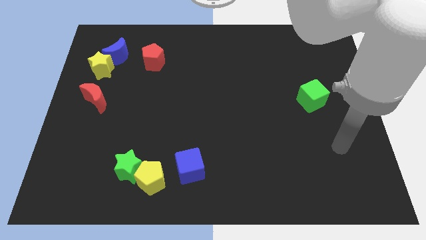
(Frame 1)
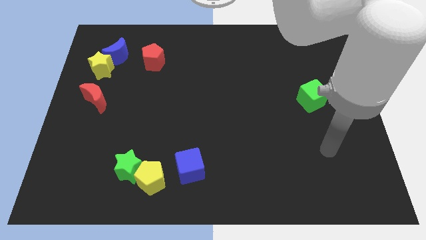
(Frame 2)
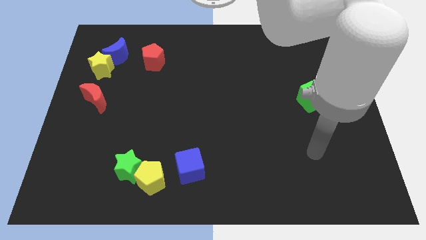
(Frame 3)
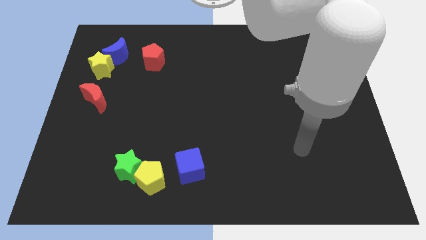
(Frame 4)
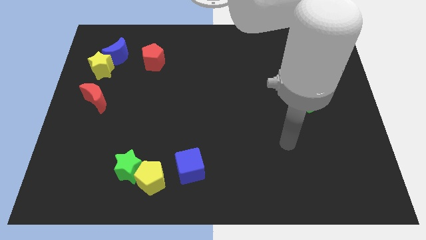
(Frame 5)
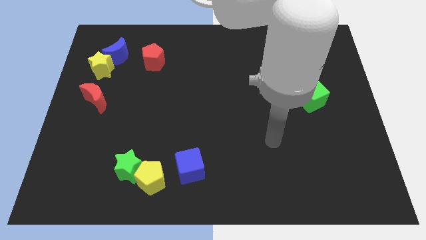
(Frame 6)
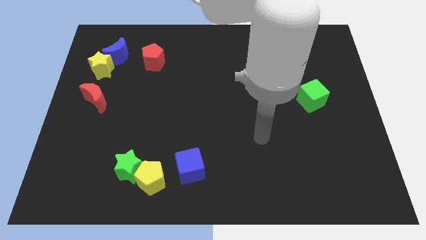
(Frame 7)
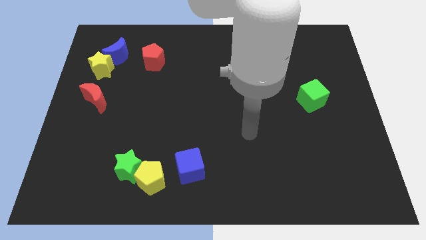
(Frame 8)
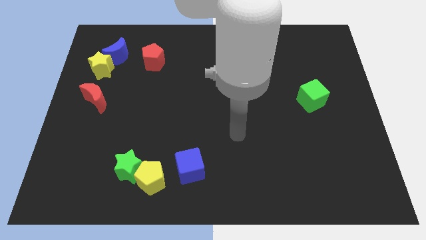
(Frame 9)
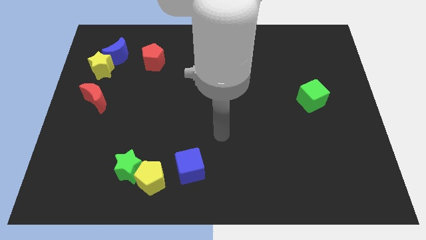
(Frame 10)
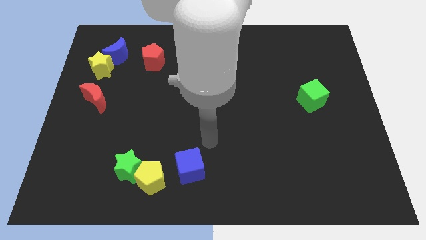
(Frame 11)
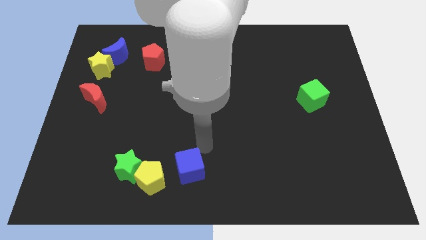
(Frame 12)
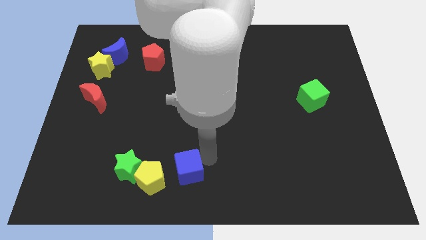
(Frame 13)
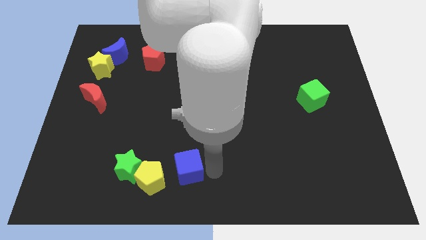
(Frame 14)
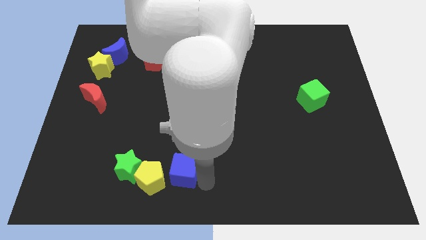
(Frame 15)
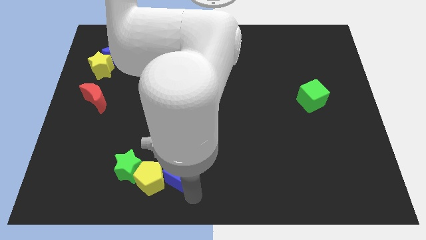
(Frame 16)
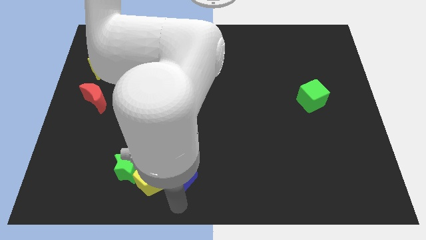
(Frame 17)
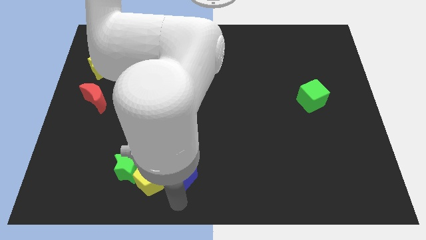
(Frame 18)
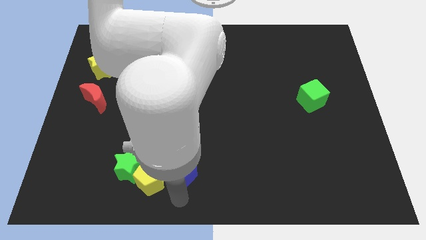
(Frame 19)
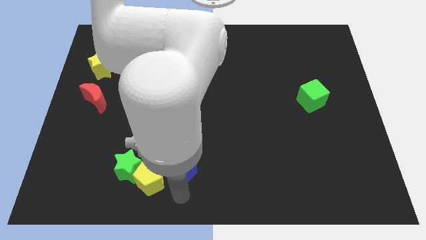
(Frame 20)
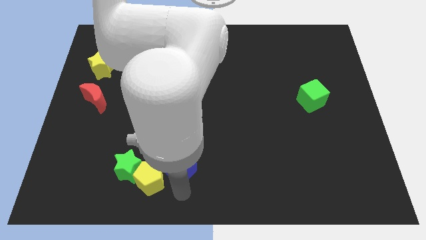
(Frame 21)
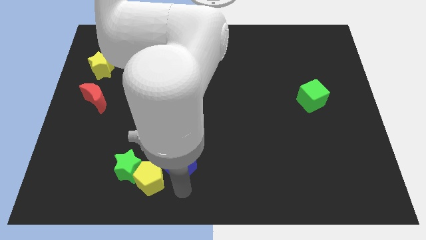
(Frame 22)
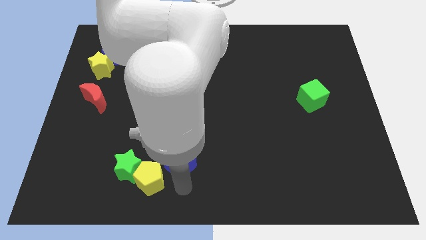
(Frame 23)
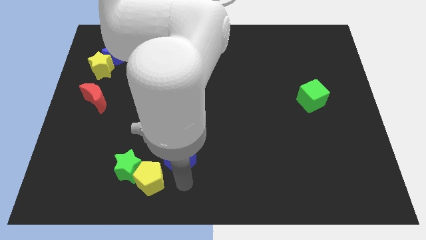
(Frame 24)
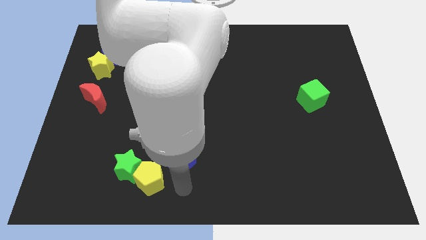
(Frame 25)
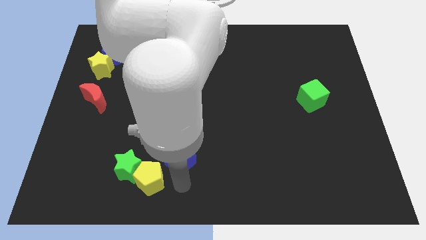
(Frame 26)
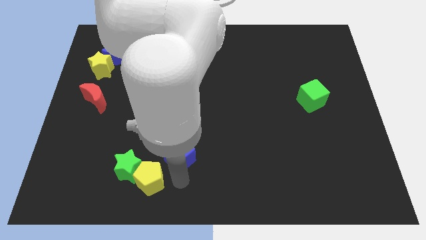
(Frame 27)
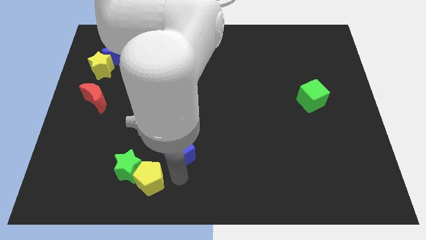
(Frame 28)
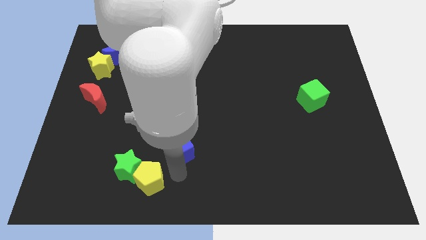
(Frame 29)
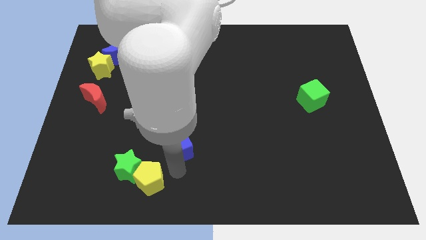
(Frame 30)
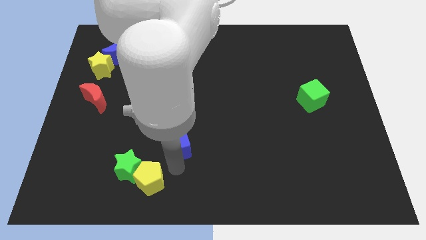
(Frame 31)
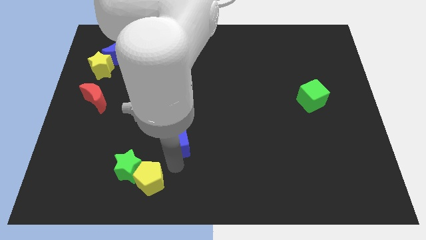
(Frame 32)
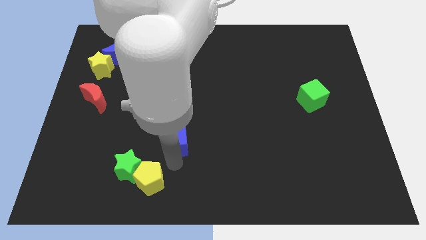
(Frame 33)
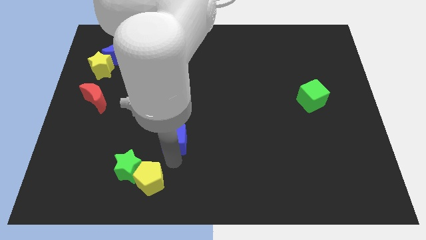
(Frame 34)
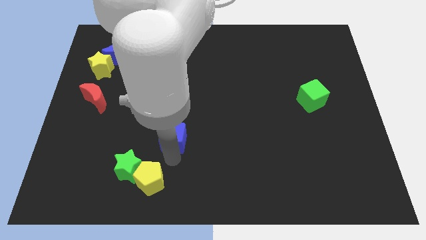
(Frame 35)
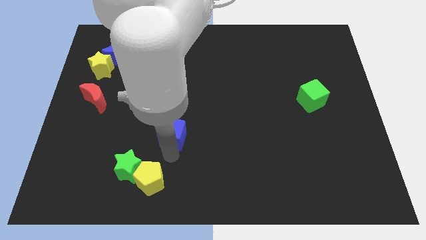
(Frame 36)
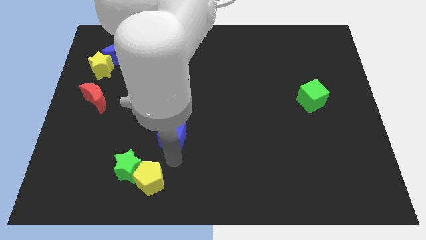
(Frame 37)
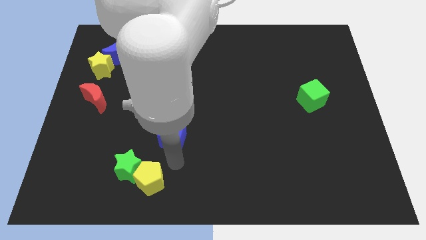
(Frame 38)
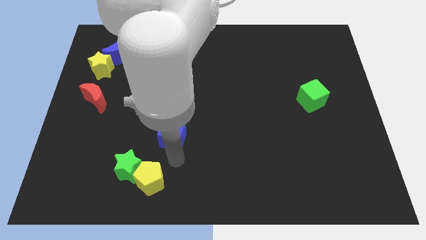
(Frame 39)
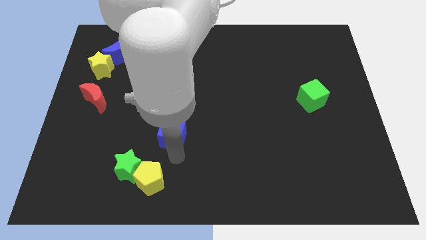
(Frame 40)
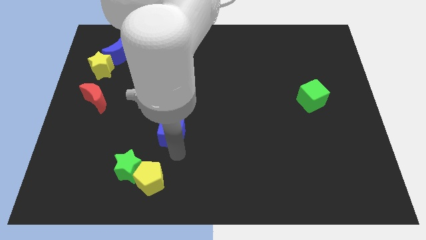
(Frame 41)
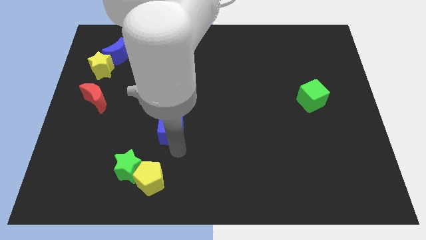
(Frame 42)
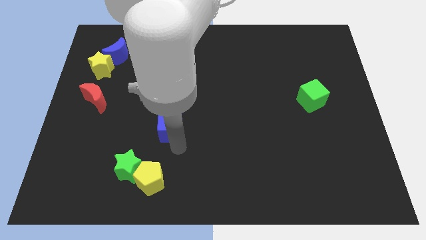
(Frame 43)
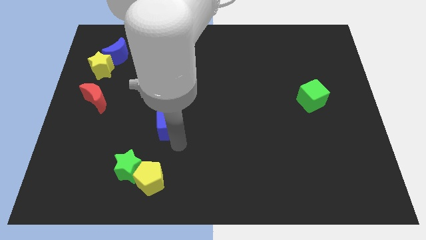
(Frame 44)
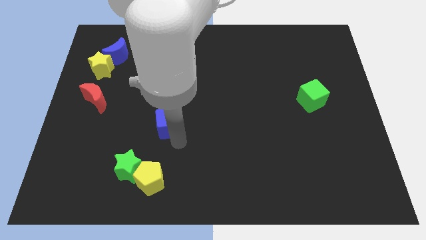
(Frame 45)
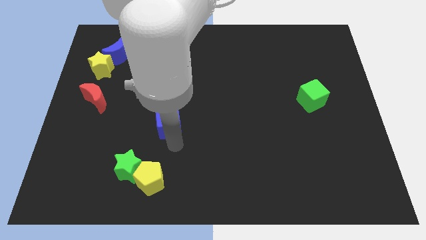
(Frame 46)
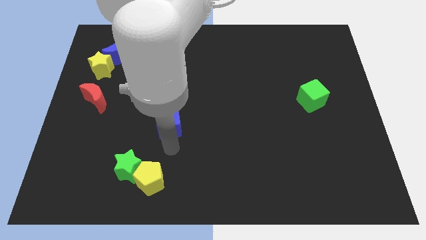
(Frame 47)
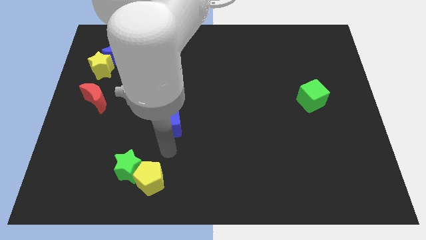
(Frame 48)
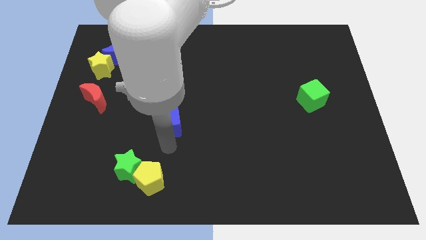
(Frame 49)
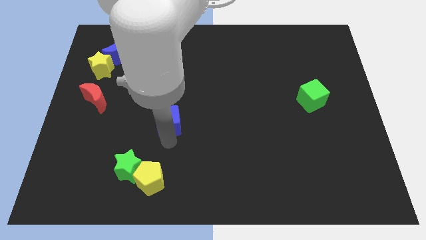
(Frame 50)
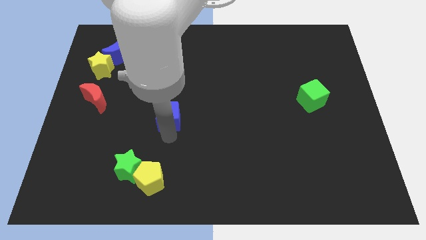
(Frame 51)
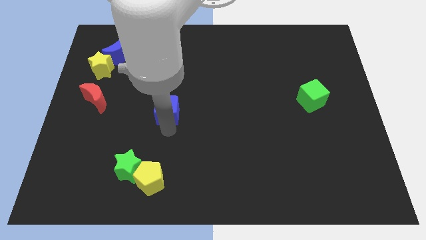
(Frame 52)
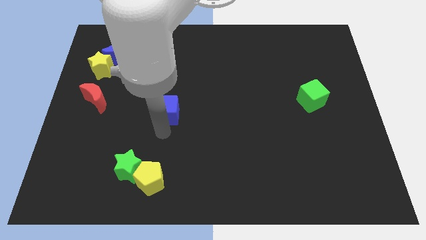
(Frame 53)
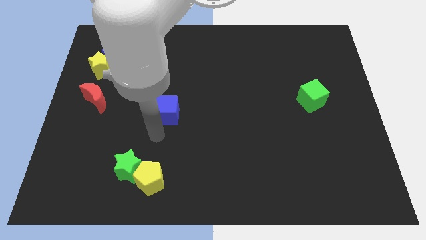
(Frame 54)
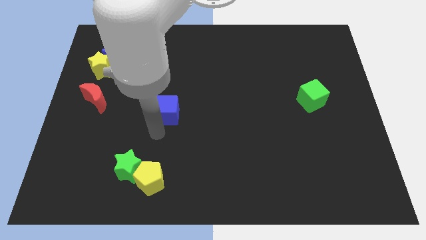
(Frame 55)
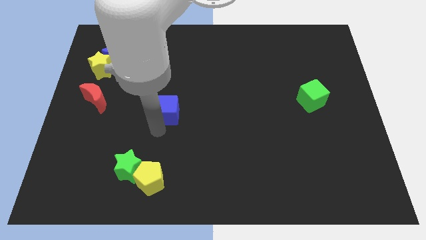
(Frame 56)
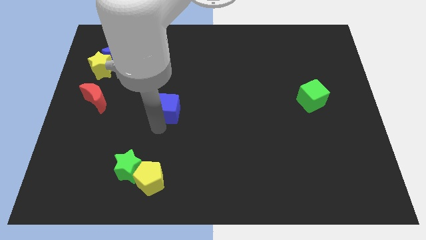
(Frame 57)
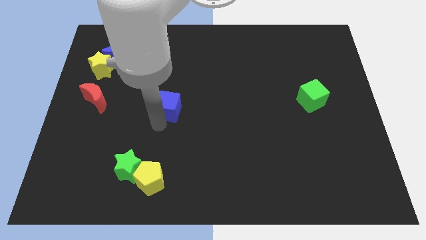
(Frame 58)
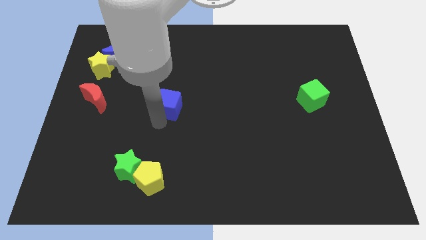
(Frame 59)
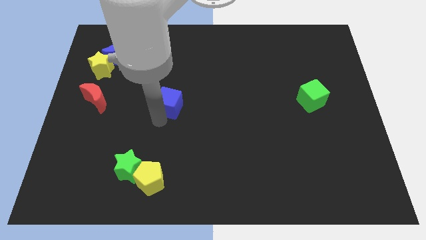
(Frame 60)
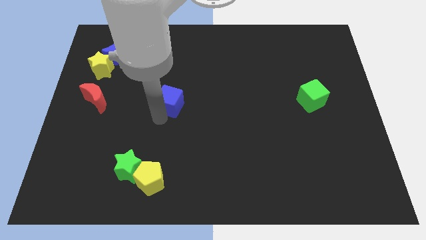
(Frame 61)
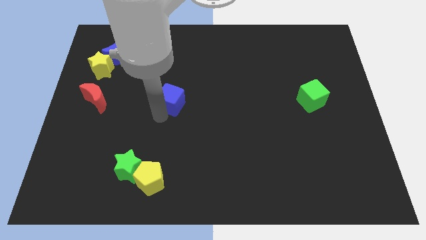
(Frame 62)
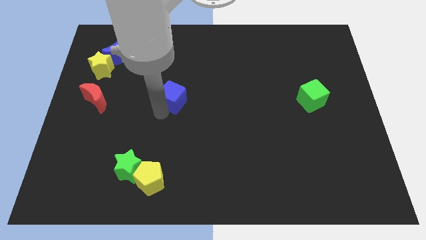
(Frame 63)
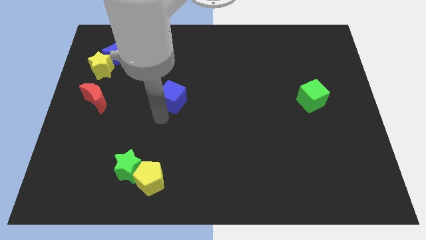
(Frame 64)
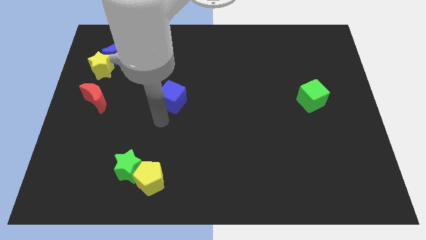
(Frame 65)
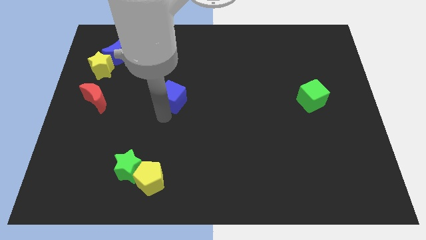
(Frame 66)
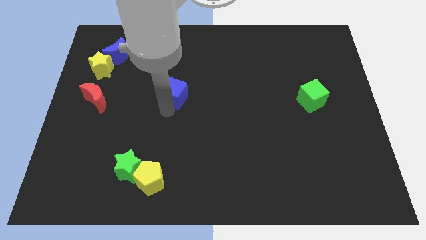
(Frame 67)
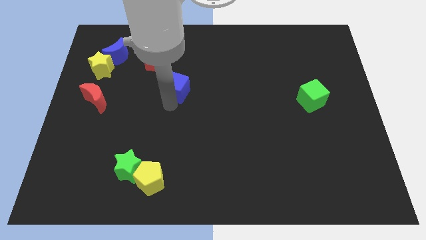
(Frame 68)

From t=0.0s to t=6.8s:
push the blue cube upwards

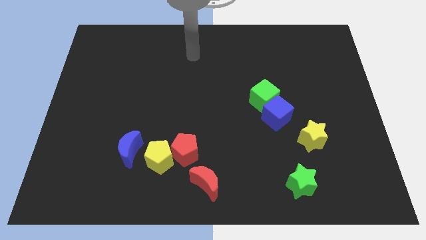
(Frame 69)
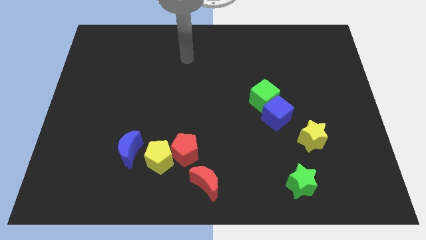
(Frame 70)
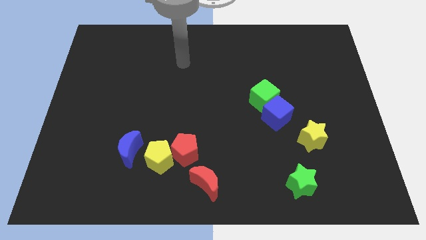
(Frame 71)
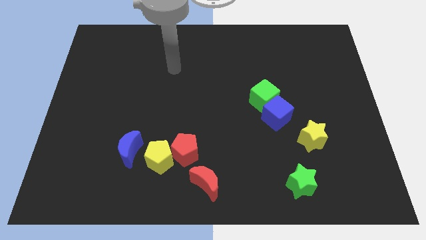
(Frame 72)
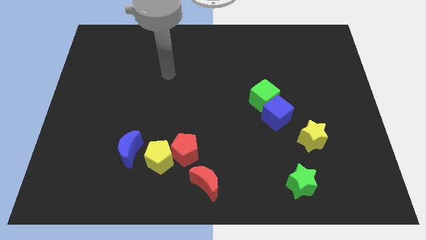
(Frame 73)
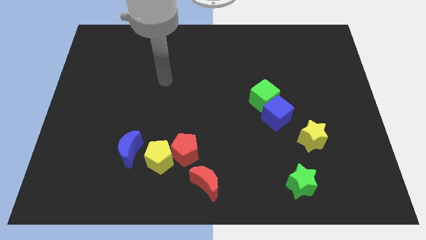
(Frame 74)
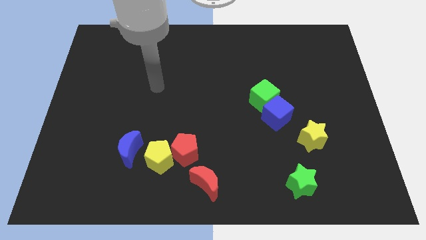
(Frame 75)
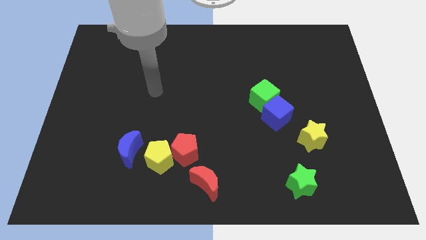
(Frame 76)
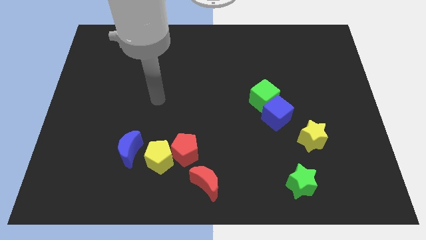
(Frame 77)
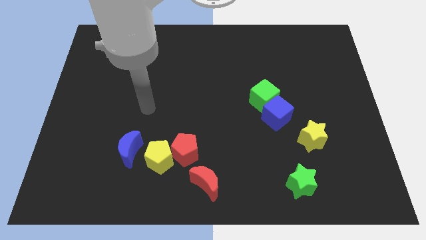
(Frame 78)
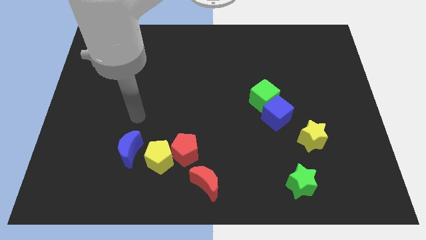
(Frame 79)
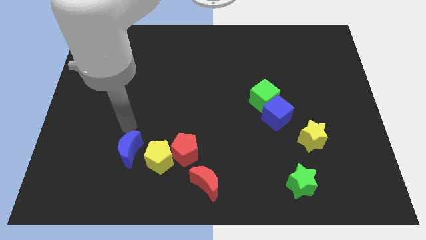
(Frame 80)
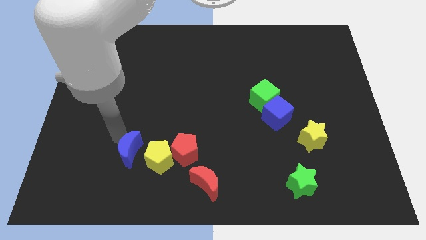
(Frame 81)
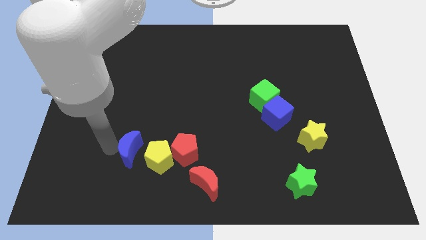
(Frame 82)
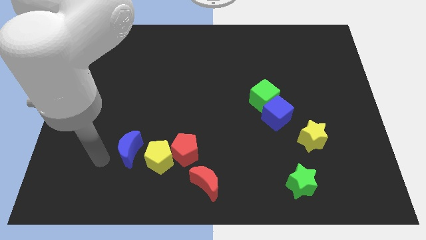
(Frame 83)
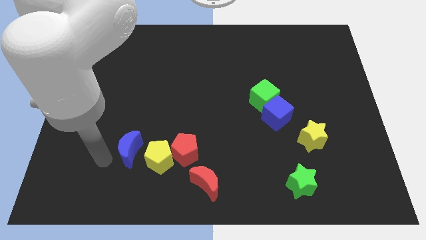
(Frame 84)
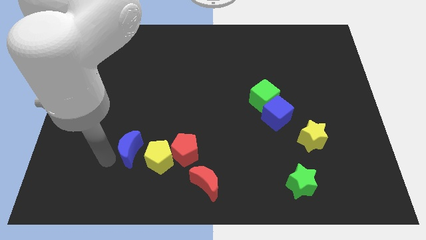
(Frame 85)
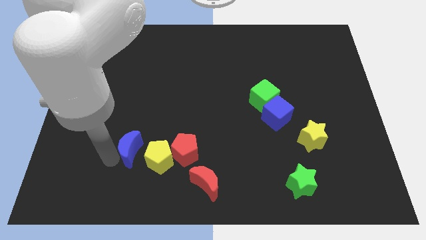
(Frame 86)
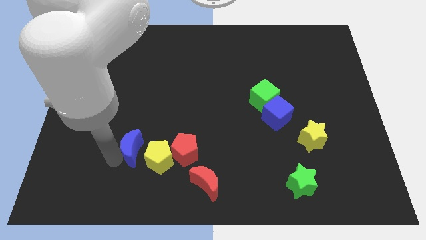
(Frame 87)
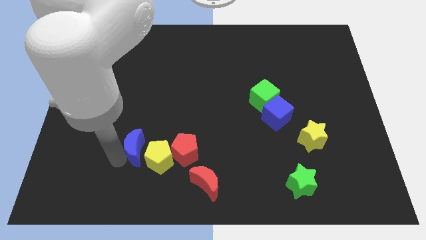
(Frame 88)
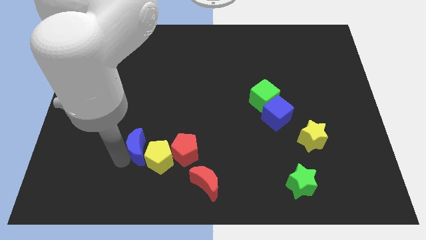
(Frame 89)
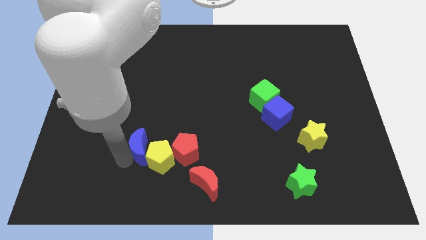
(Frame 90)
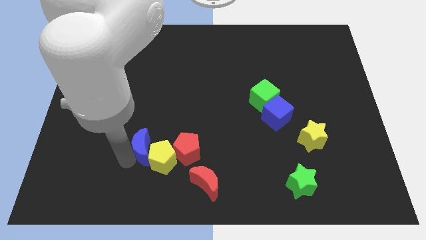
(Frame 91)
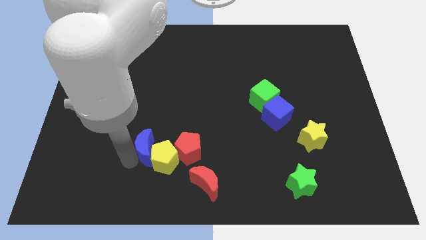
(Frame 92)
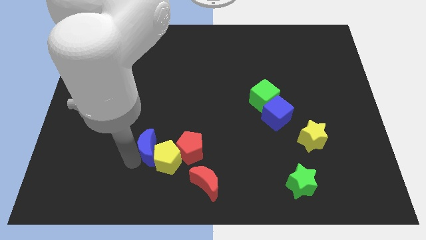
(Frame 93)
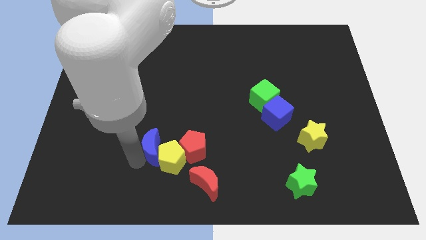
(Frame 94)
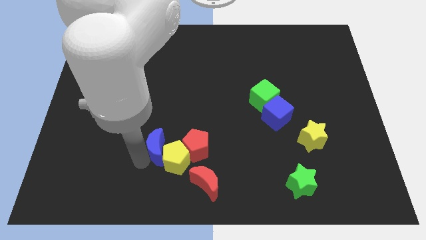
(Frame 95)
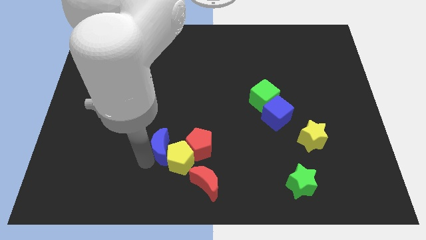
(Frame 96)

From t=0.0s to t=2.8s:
slightly push the blue moon to the right
